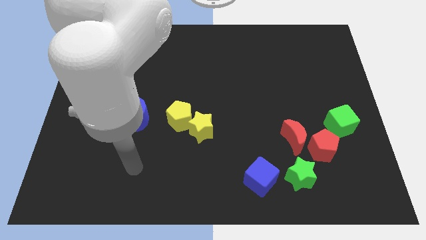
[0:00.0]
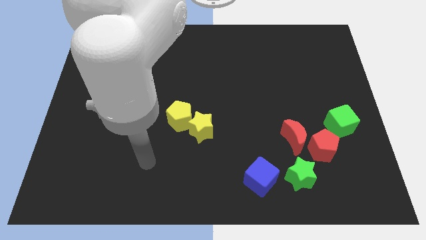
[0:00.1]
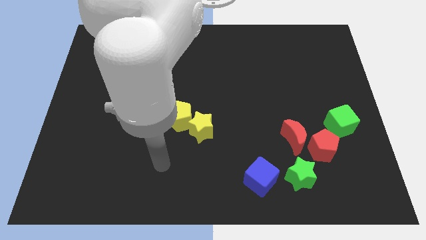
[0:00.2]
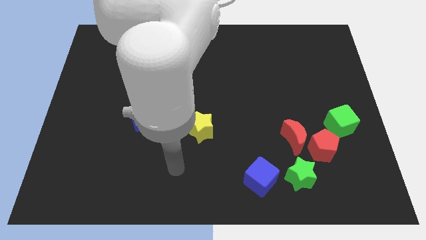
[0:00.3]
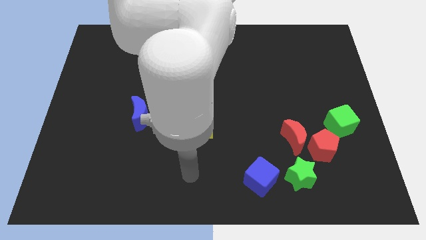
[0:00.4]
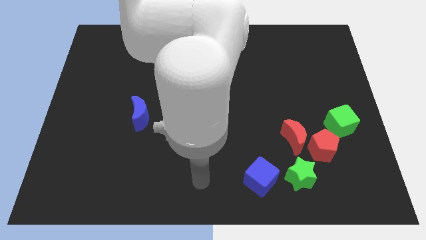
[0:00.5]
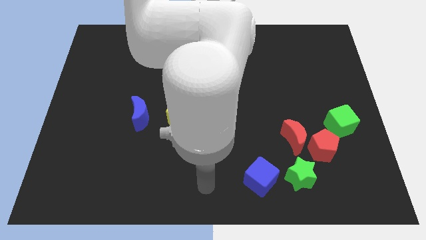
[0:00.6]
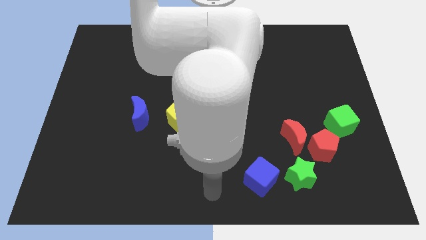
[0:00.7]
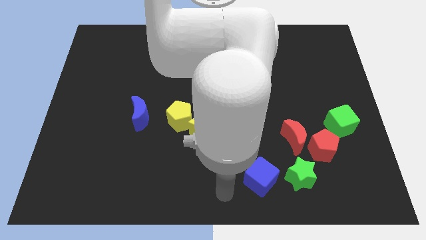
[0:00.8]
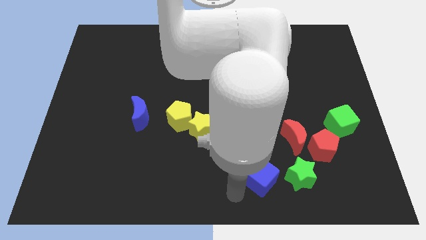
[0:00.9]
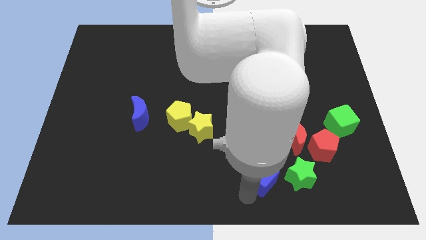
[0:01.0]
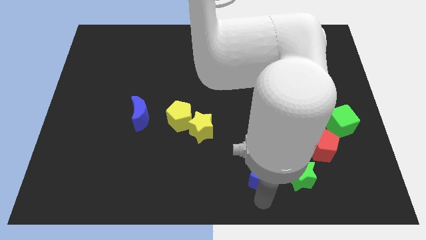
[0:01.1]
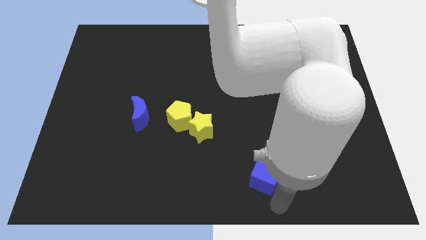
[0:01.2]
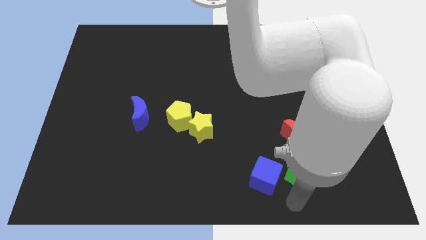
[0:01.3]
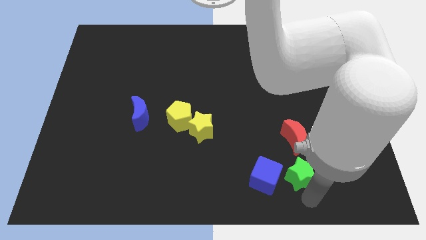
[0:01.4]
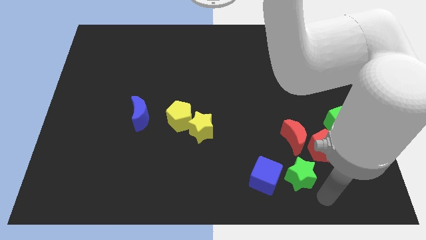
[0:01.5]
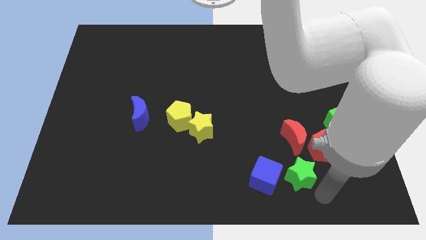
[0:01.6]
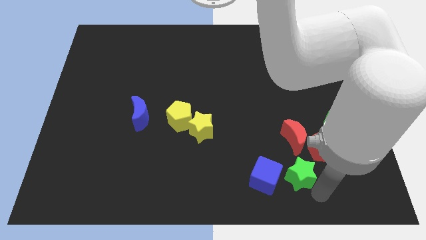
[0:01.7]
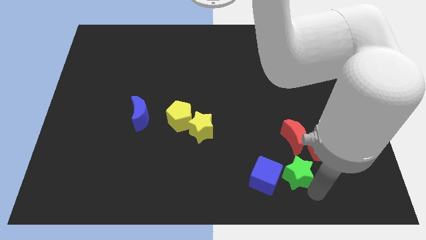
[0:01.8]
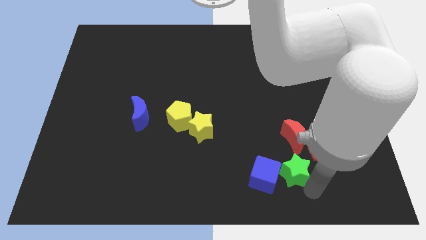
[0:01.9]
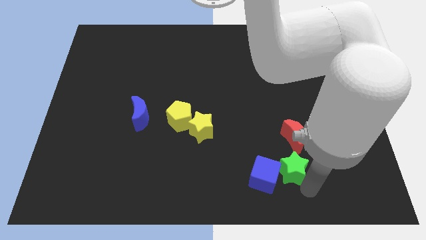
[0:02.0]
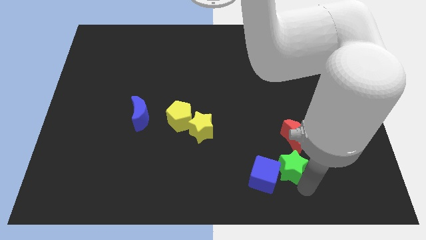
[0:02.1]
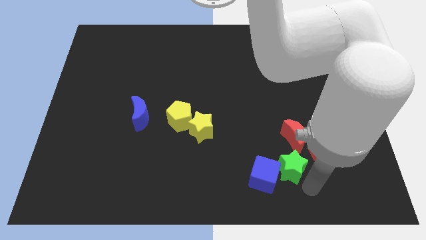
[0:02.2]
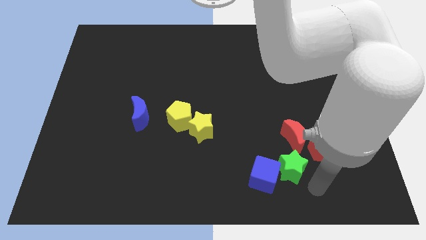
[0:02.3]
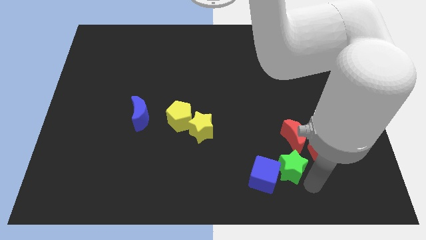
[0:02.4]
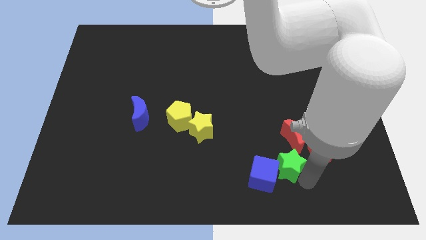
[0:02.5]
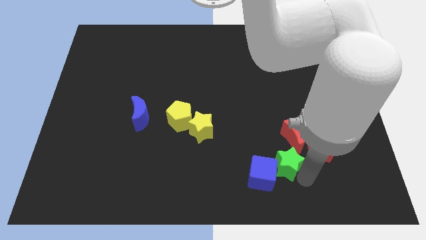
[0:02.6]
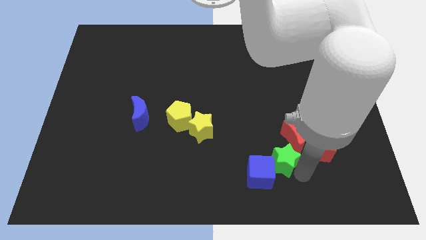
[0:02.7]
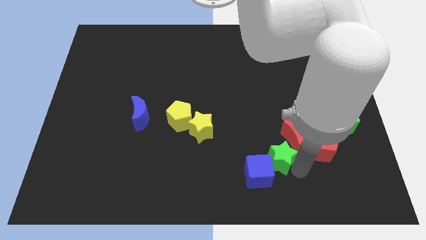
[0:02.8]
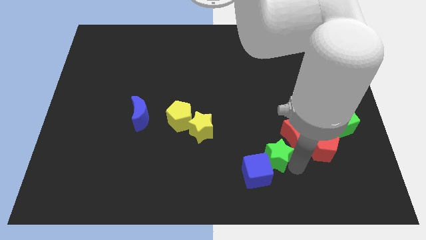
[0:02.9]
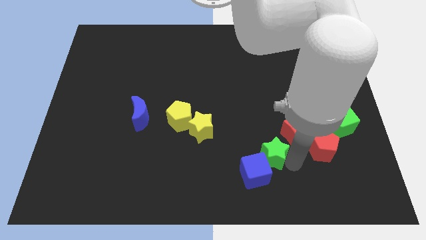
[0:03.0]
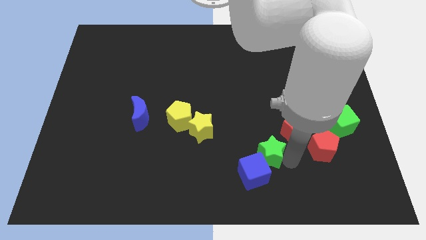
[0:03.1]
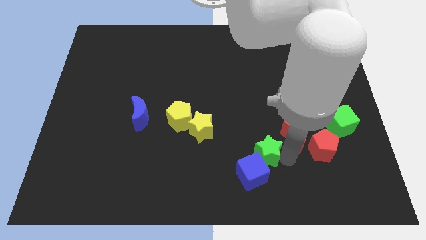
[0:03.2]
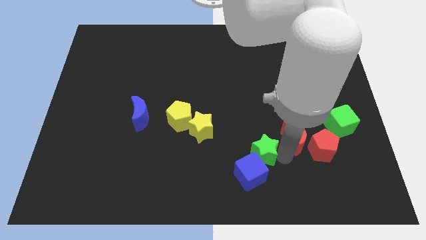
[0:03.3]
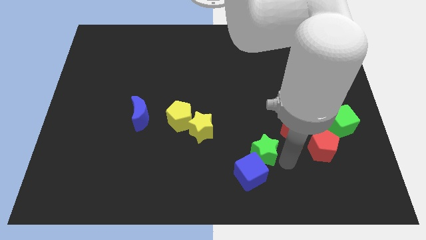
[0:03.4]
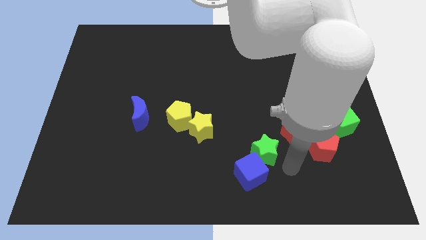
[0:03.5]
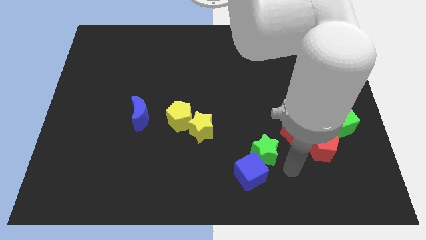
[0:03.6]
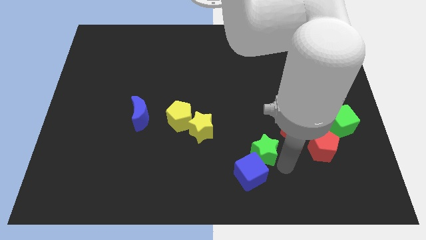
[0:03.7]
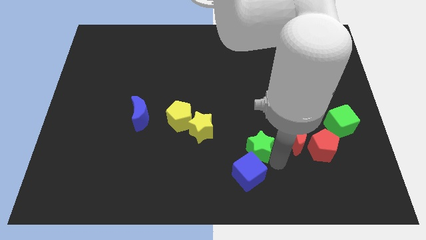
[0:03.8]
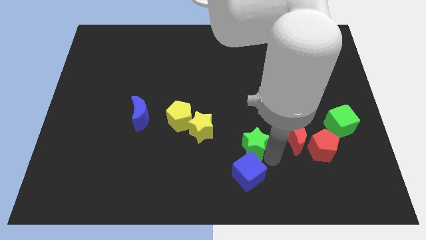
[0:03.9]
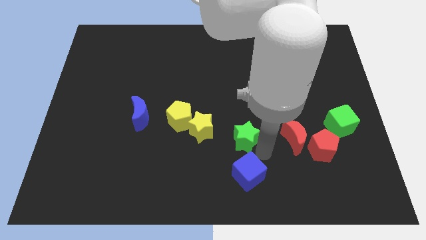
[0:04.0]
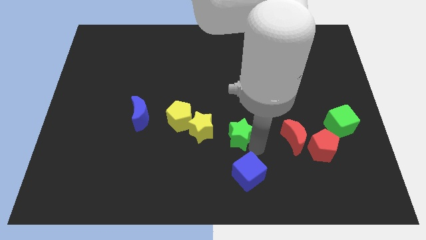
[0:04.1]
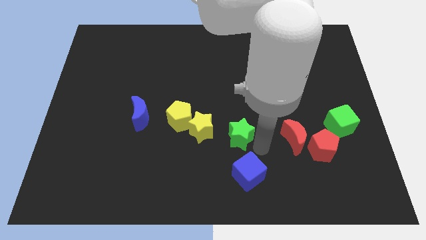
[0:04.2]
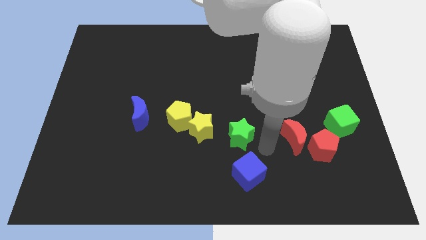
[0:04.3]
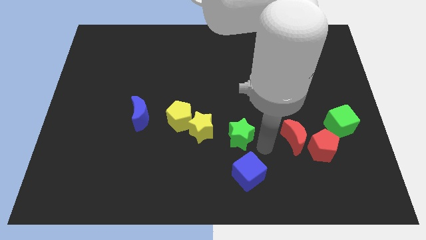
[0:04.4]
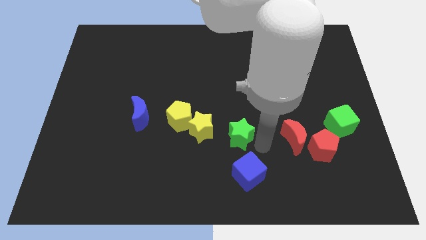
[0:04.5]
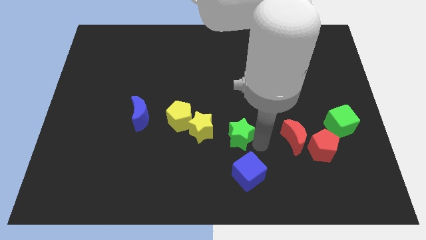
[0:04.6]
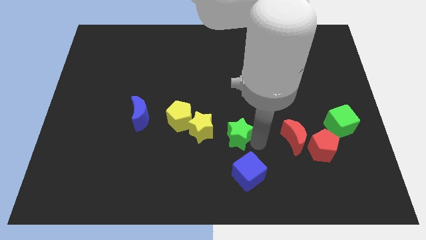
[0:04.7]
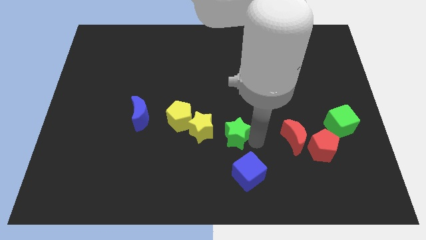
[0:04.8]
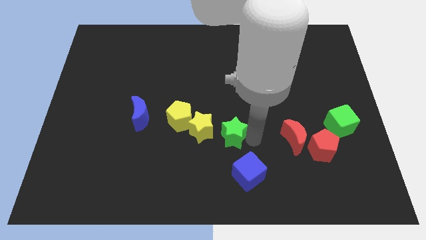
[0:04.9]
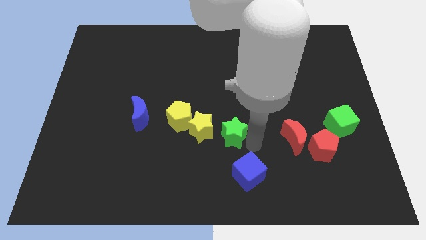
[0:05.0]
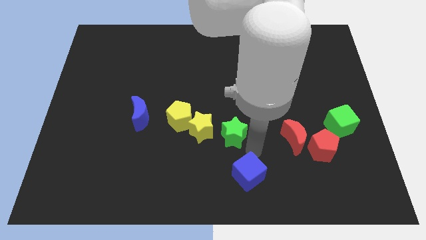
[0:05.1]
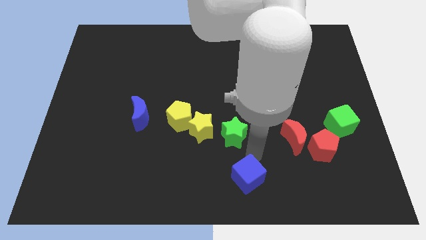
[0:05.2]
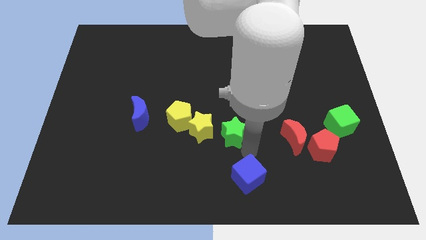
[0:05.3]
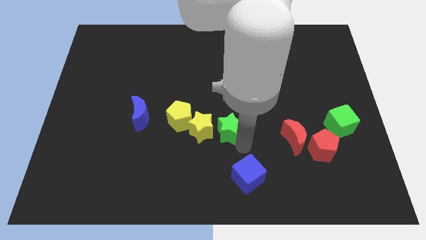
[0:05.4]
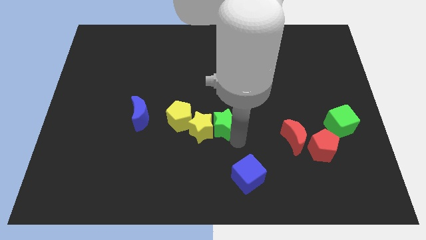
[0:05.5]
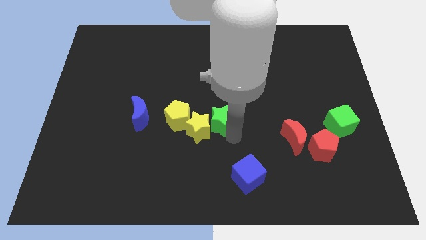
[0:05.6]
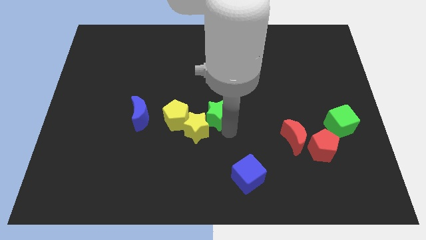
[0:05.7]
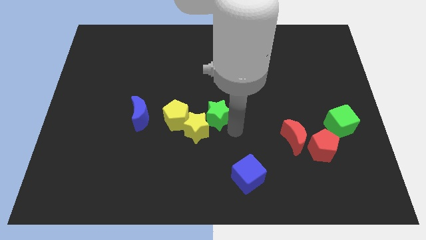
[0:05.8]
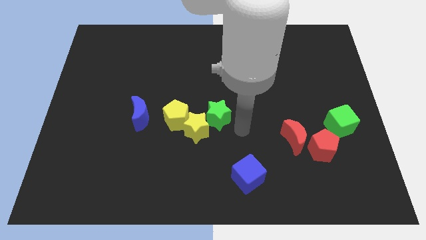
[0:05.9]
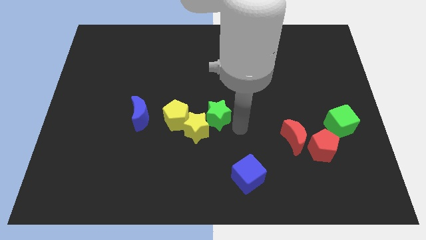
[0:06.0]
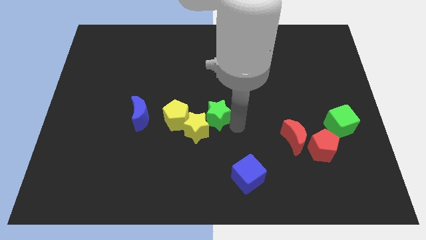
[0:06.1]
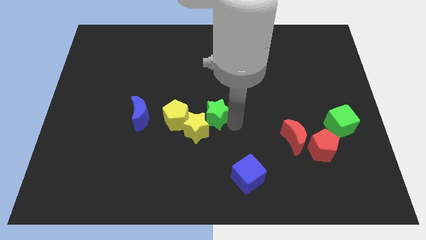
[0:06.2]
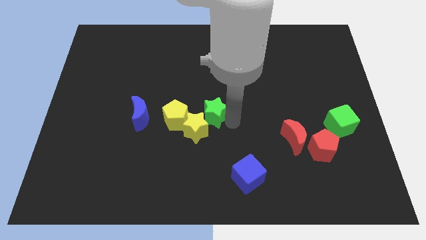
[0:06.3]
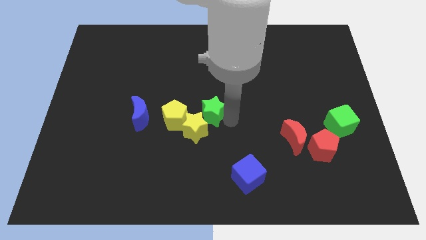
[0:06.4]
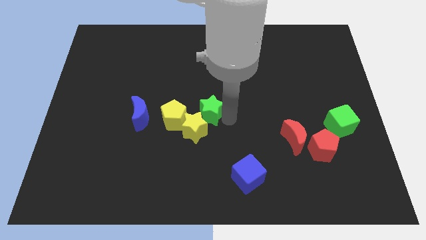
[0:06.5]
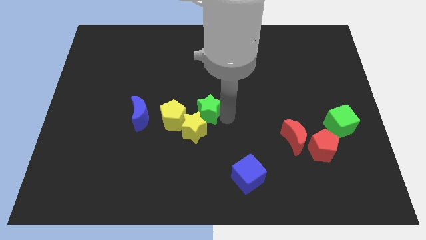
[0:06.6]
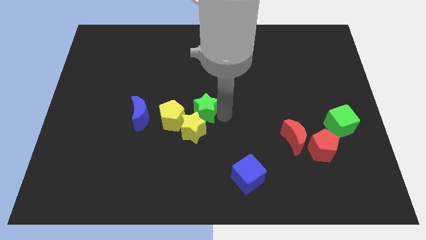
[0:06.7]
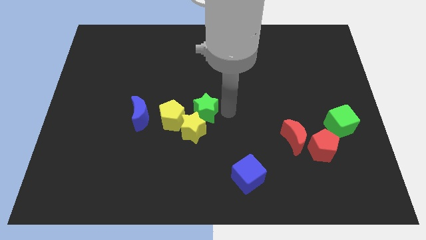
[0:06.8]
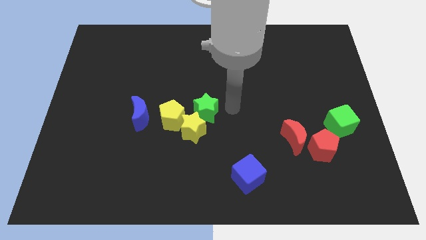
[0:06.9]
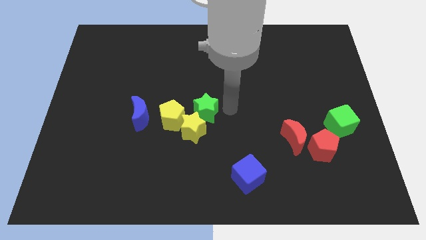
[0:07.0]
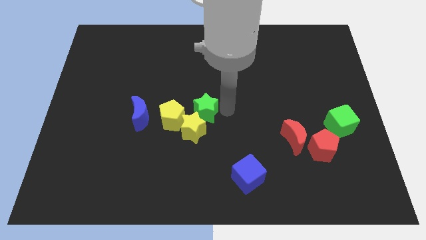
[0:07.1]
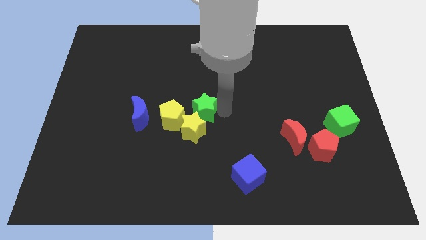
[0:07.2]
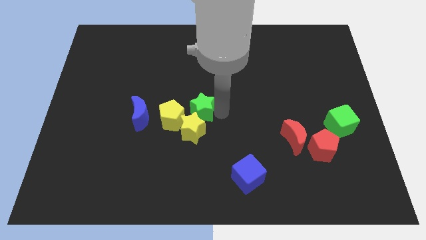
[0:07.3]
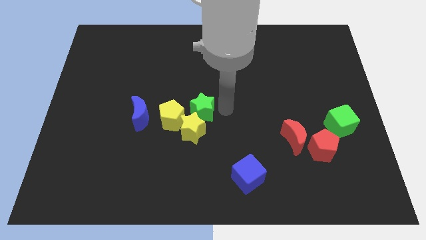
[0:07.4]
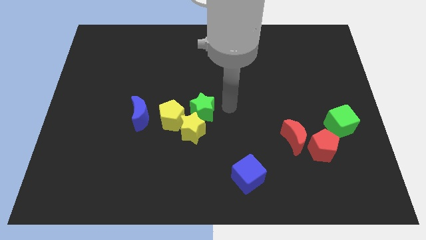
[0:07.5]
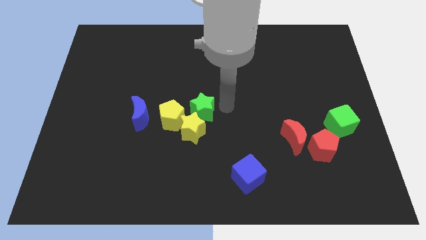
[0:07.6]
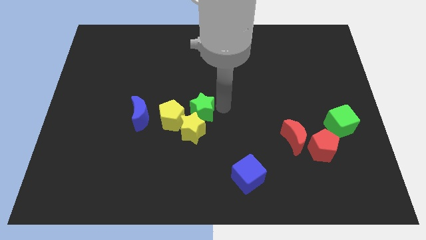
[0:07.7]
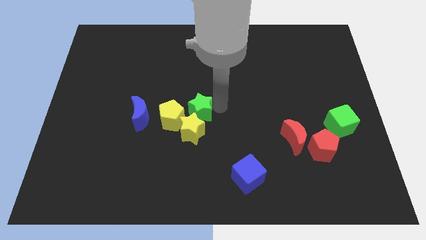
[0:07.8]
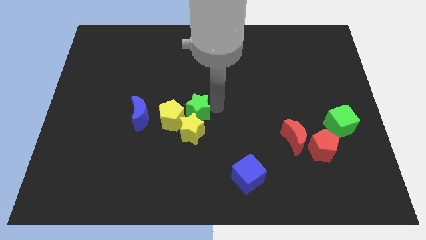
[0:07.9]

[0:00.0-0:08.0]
slide the green star to the yellow pentagon
